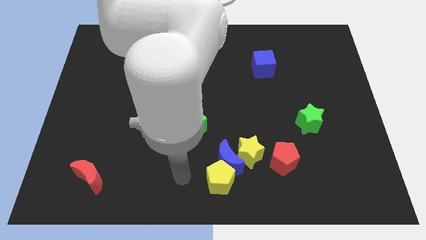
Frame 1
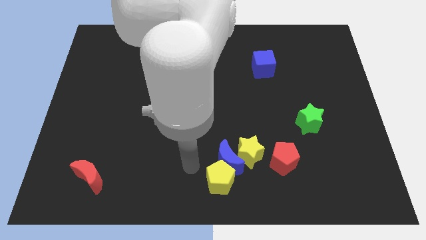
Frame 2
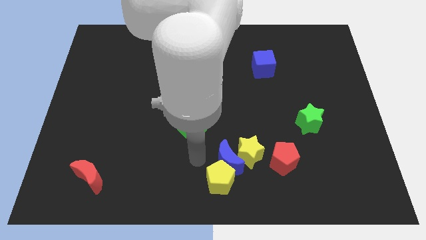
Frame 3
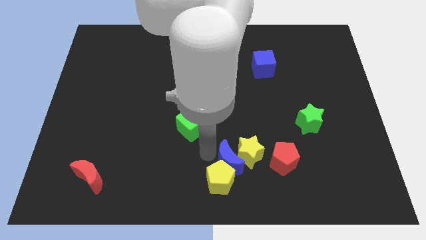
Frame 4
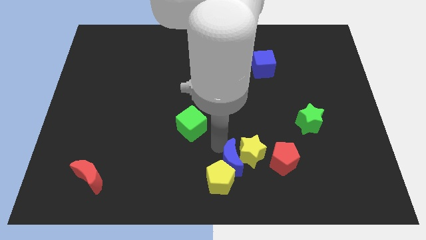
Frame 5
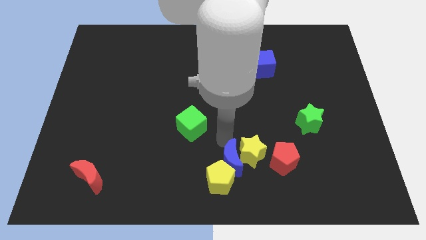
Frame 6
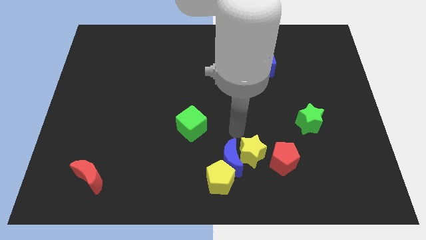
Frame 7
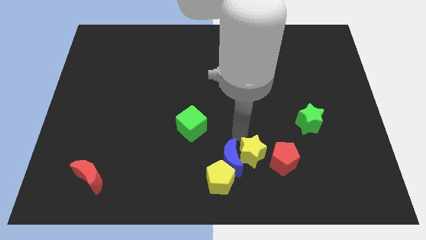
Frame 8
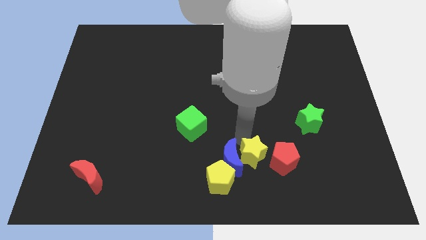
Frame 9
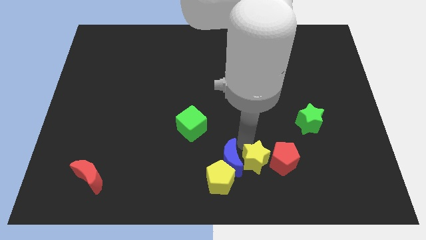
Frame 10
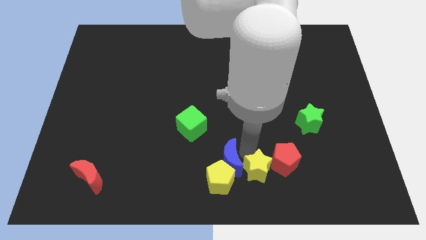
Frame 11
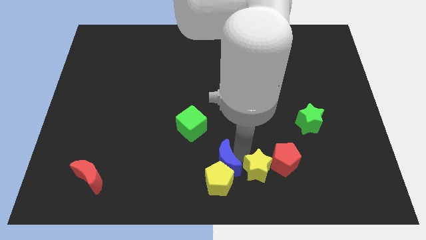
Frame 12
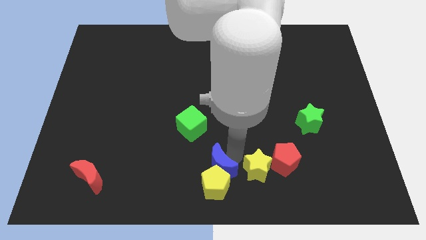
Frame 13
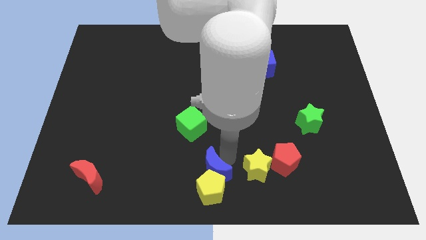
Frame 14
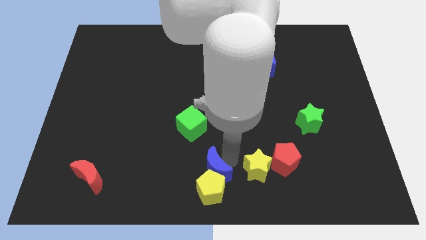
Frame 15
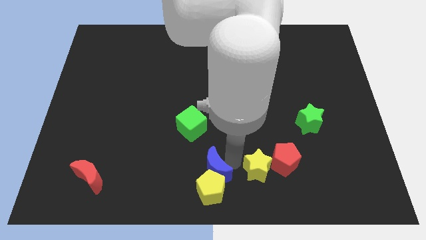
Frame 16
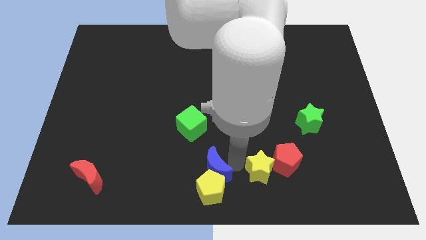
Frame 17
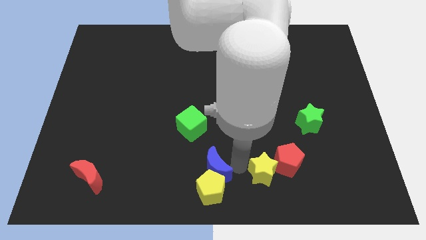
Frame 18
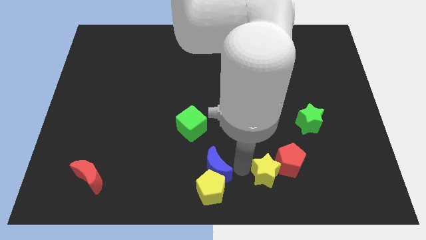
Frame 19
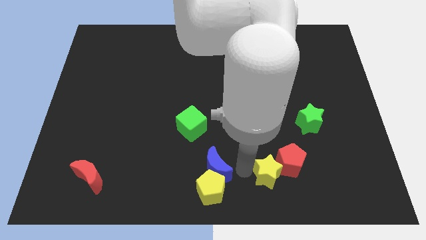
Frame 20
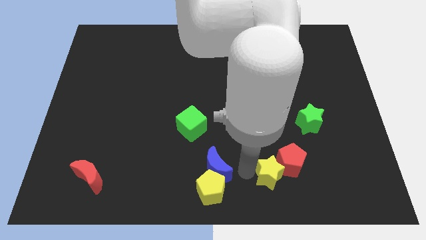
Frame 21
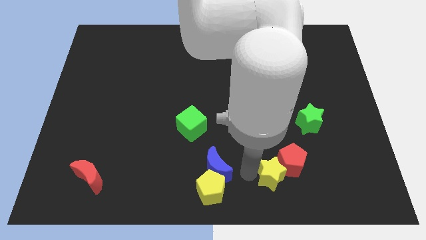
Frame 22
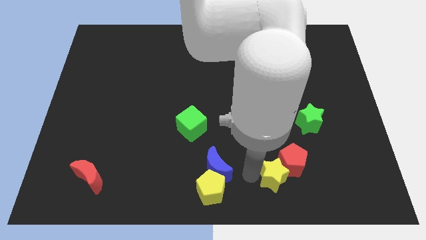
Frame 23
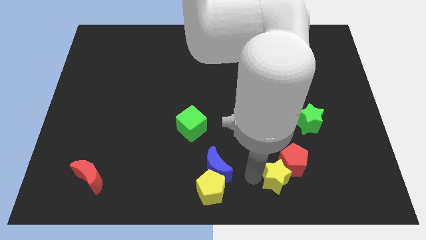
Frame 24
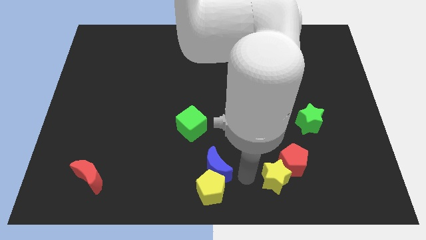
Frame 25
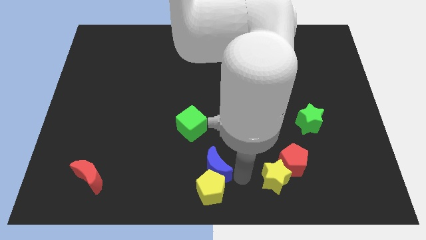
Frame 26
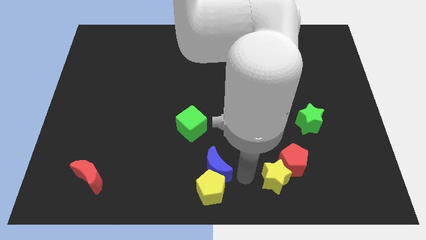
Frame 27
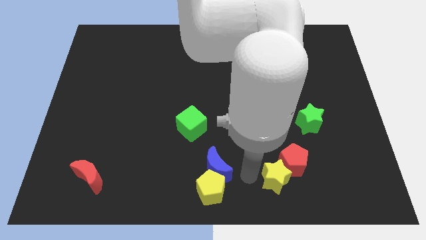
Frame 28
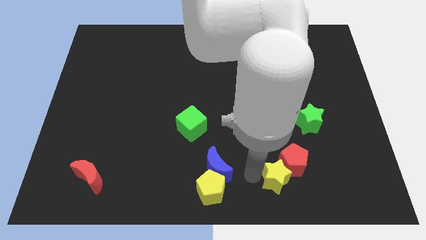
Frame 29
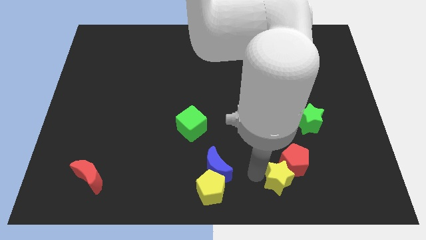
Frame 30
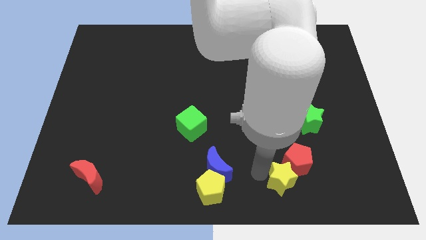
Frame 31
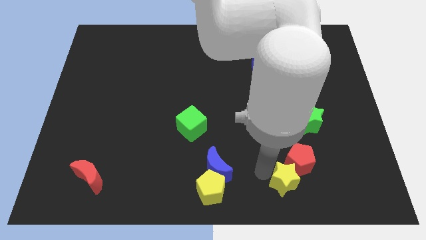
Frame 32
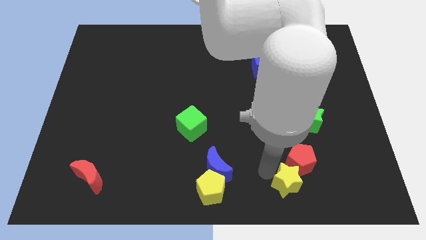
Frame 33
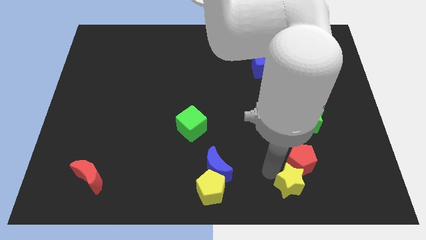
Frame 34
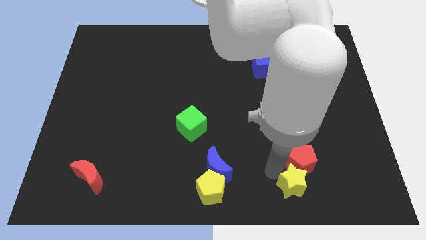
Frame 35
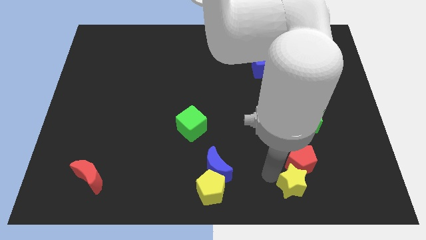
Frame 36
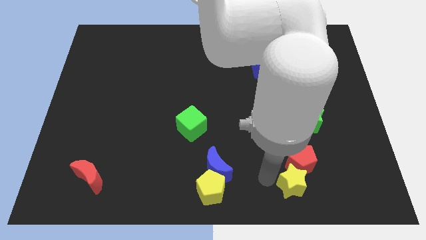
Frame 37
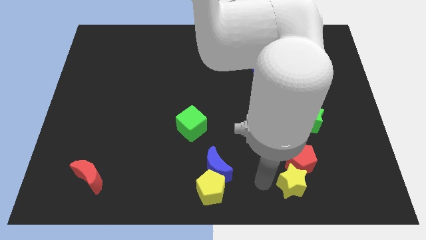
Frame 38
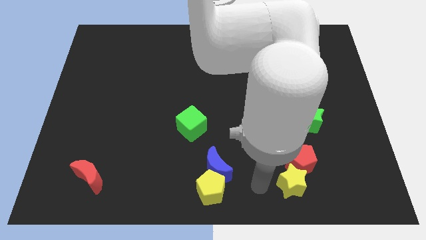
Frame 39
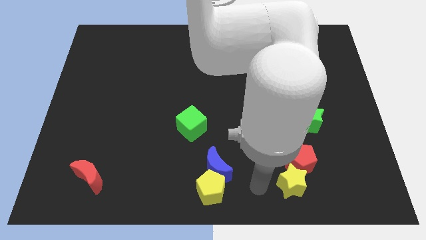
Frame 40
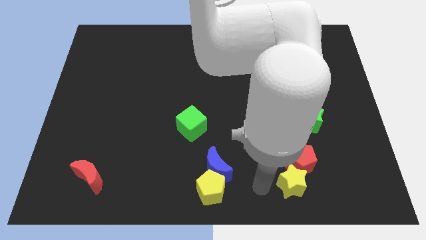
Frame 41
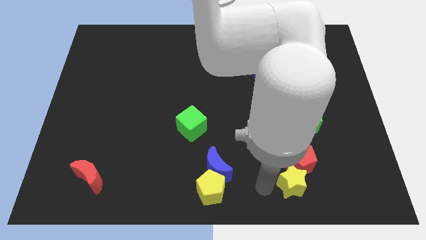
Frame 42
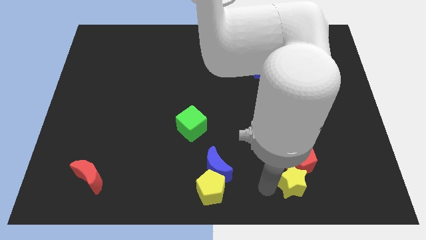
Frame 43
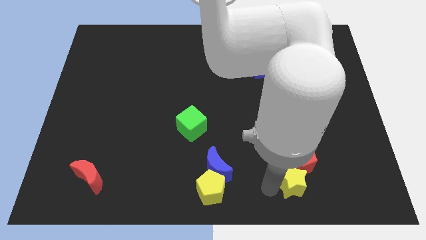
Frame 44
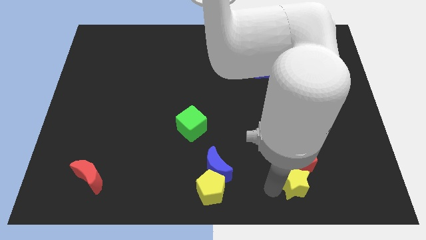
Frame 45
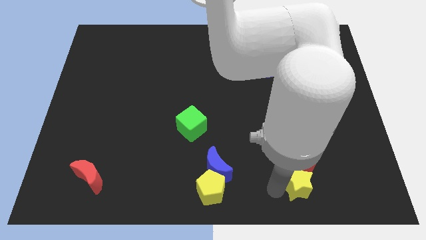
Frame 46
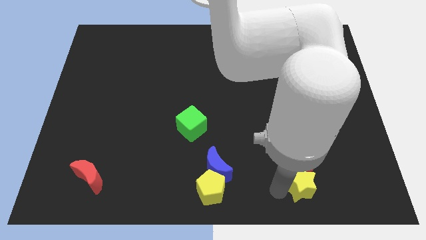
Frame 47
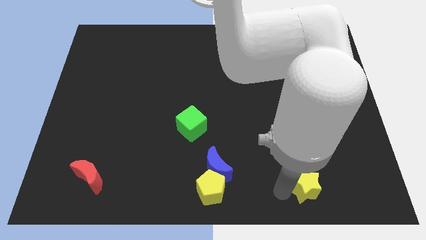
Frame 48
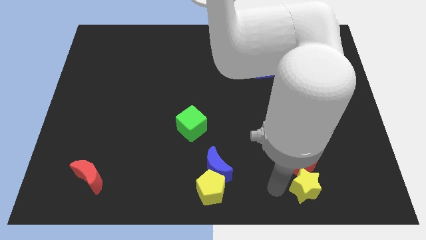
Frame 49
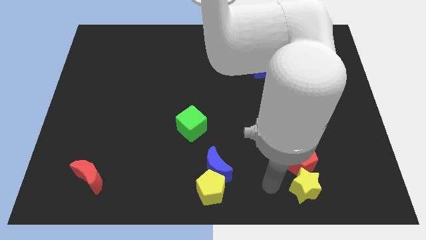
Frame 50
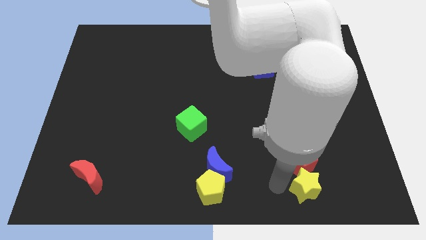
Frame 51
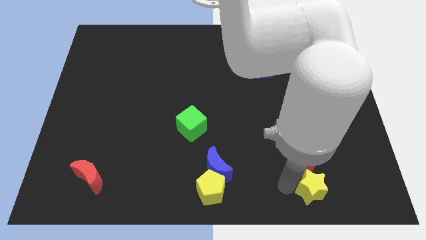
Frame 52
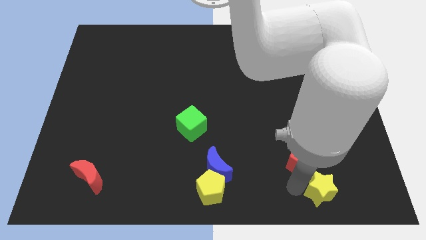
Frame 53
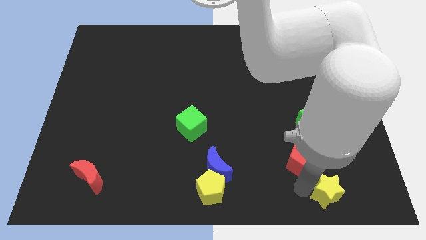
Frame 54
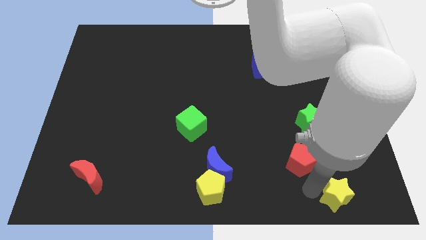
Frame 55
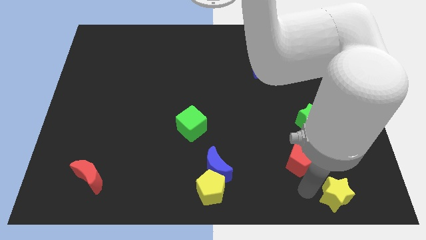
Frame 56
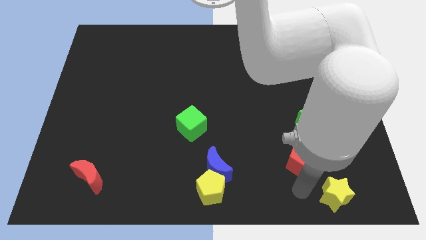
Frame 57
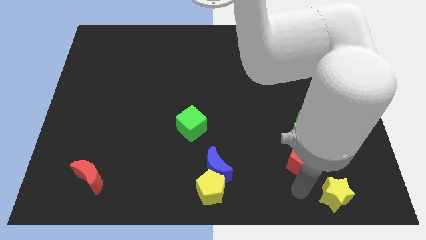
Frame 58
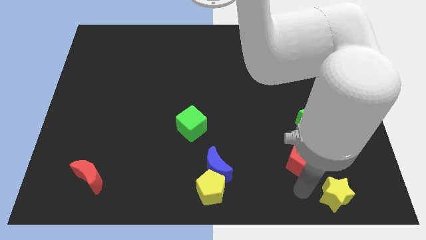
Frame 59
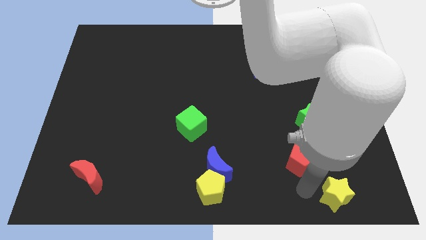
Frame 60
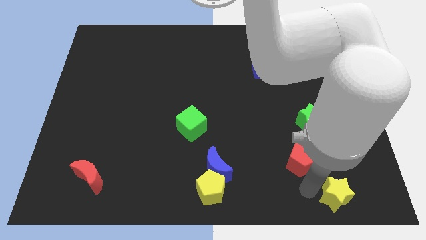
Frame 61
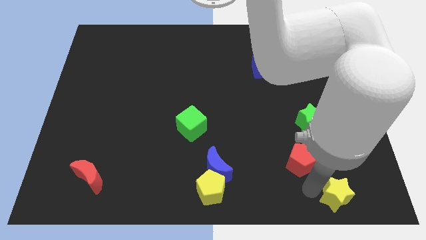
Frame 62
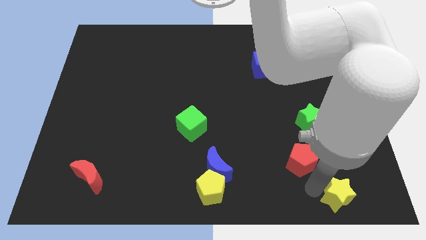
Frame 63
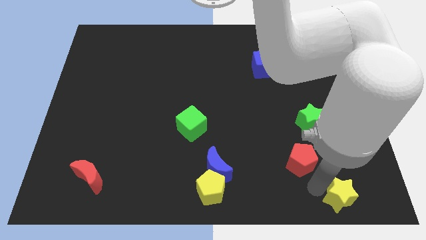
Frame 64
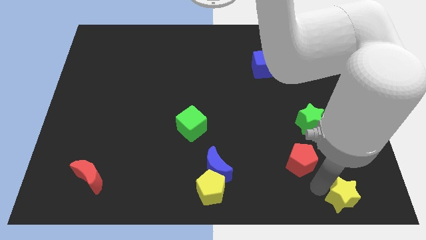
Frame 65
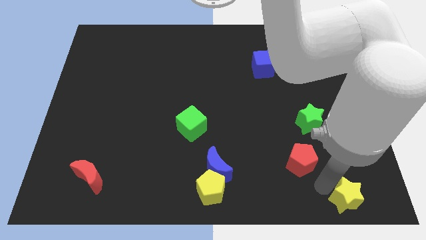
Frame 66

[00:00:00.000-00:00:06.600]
put the yellow star to the bottom right of the board
